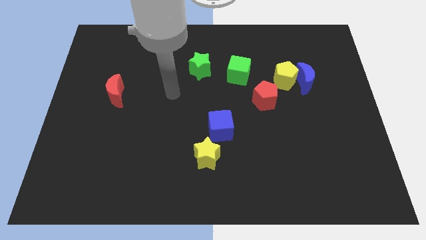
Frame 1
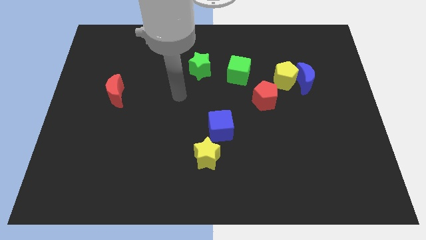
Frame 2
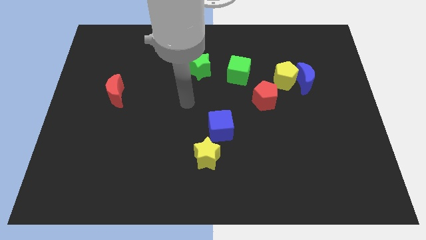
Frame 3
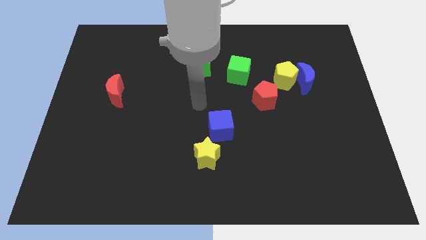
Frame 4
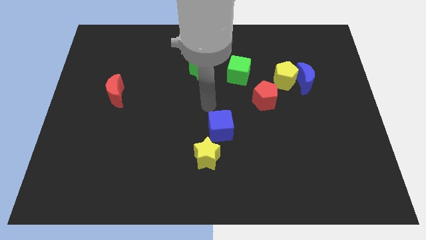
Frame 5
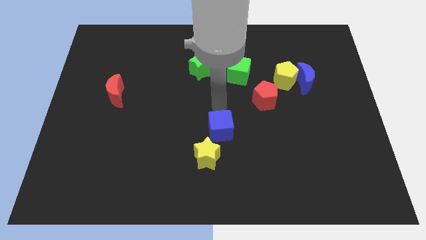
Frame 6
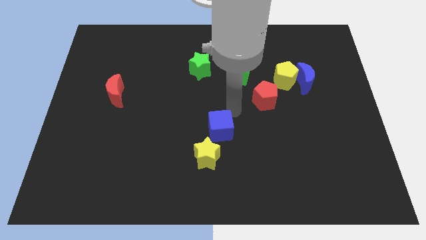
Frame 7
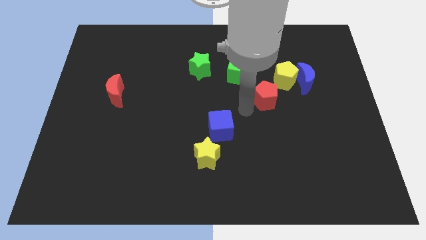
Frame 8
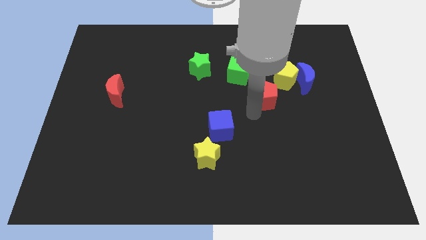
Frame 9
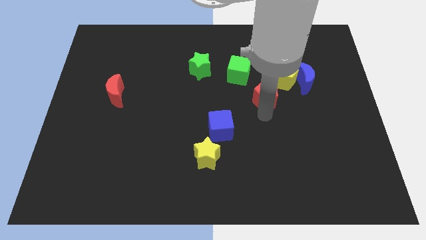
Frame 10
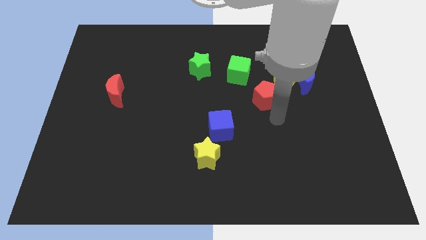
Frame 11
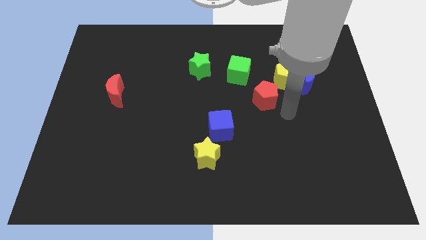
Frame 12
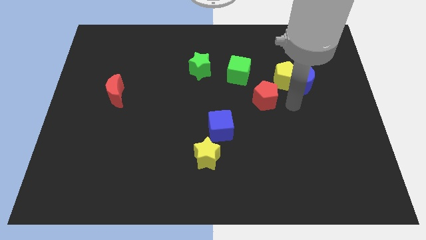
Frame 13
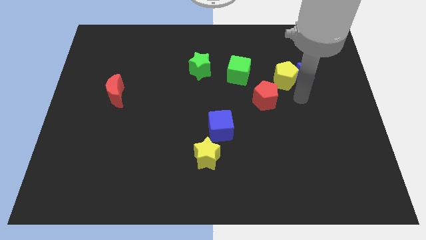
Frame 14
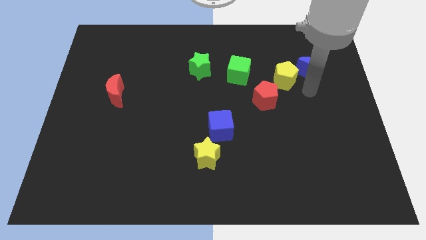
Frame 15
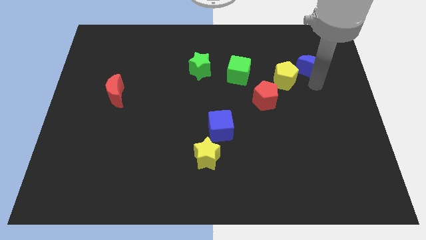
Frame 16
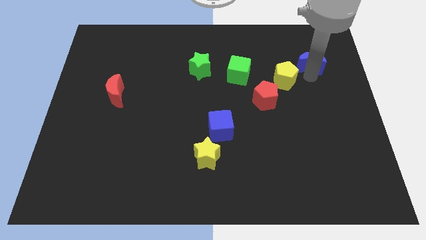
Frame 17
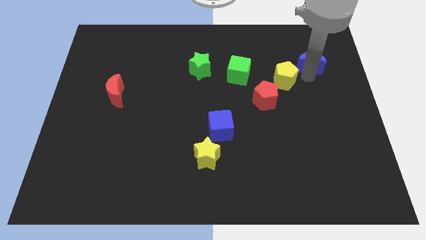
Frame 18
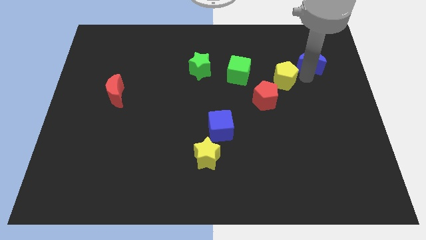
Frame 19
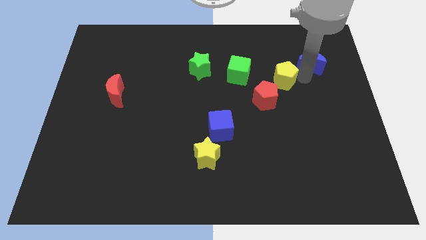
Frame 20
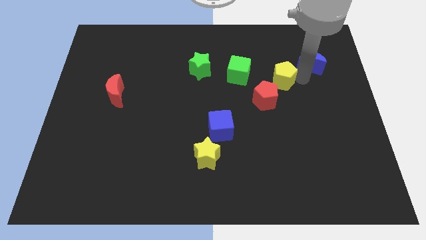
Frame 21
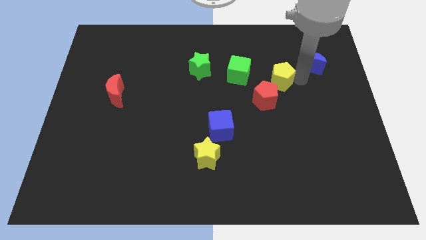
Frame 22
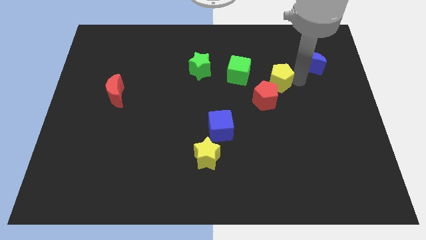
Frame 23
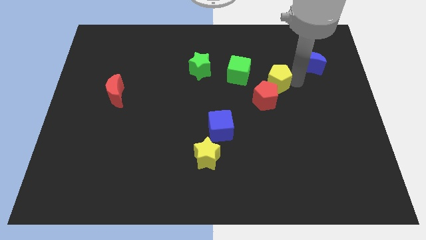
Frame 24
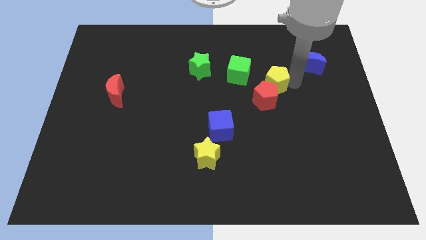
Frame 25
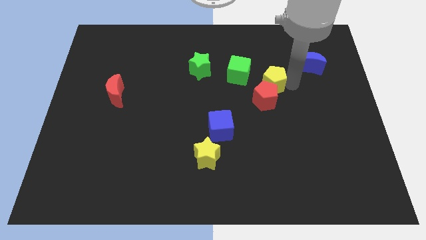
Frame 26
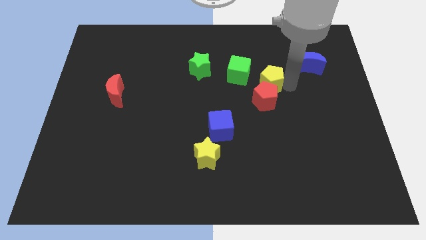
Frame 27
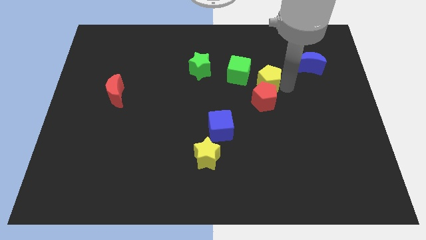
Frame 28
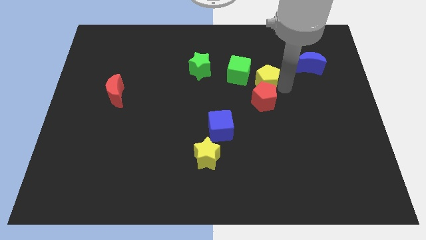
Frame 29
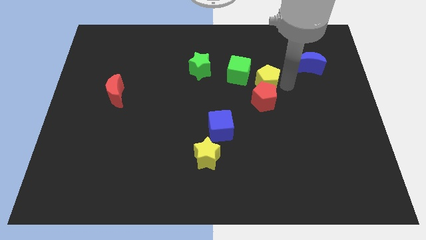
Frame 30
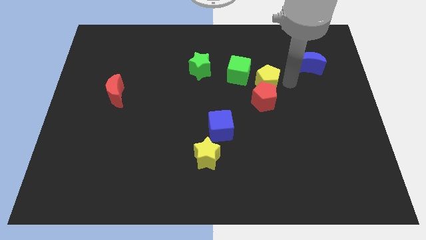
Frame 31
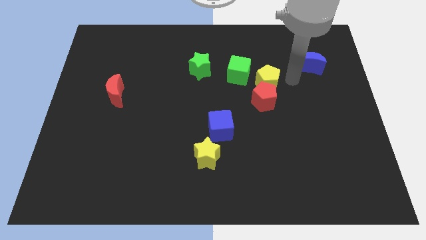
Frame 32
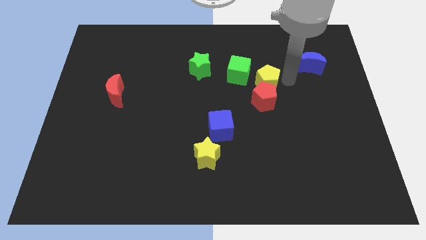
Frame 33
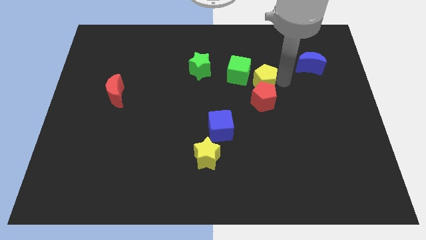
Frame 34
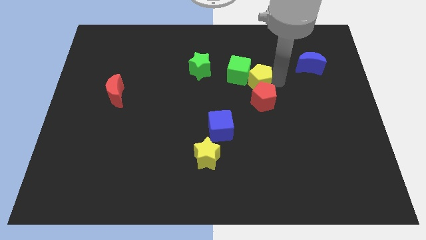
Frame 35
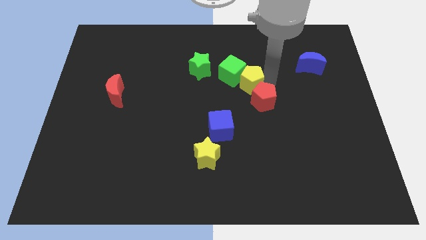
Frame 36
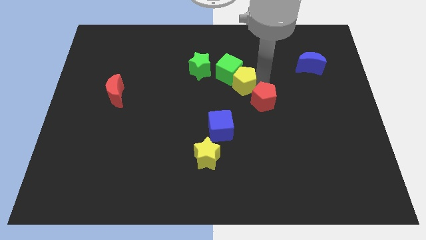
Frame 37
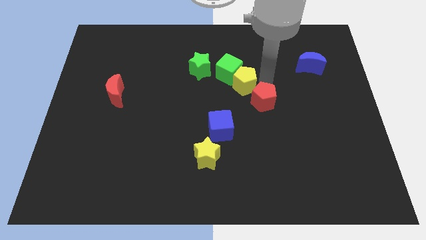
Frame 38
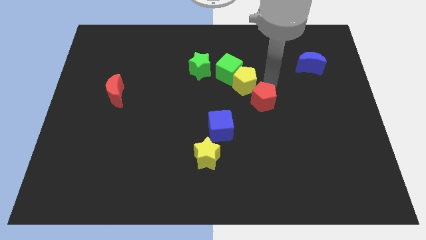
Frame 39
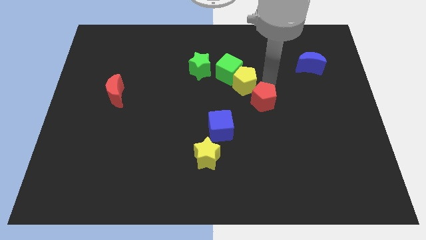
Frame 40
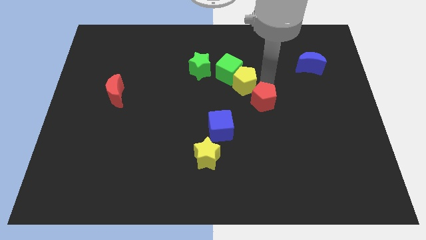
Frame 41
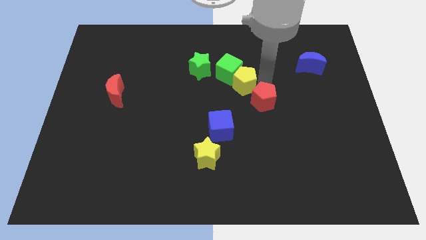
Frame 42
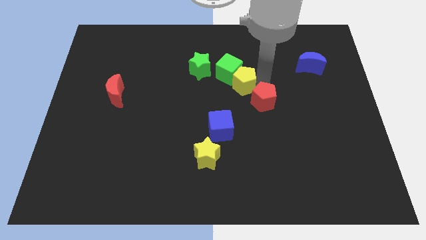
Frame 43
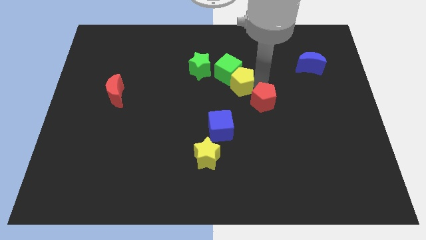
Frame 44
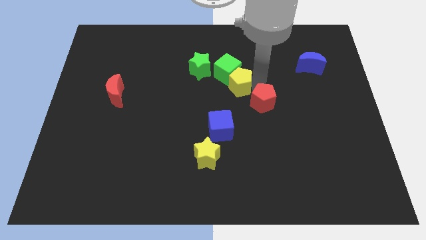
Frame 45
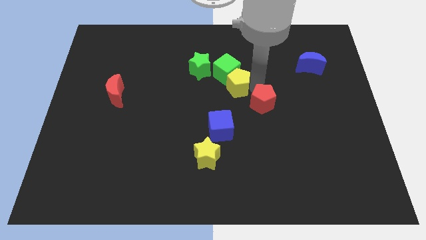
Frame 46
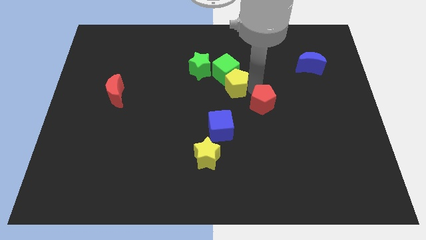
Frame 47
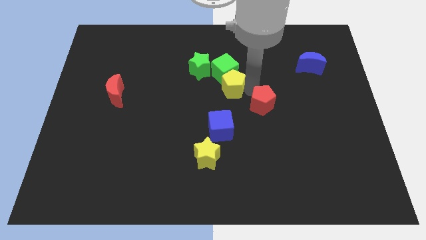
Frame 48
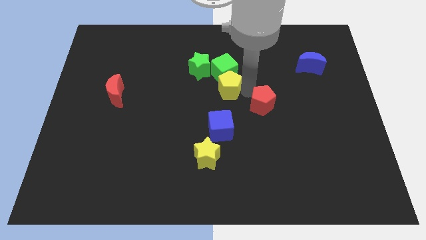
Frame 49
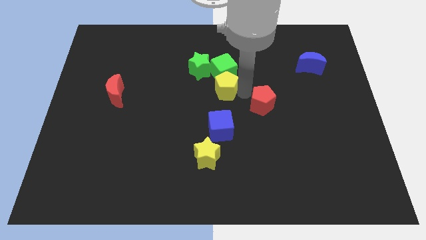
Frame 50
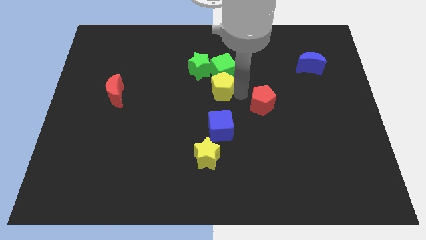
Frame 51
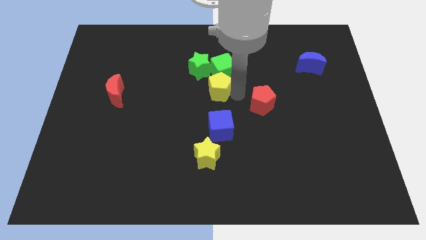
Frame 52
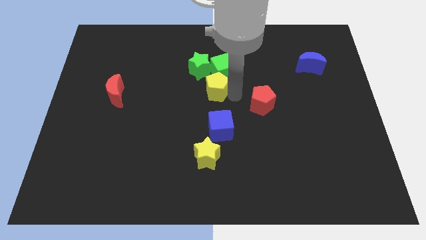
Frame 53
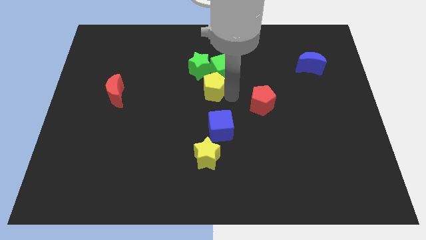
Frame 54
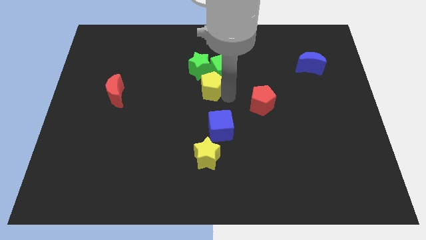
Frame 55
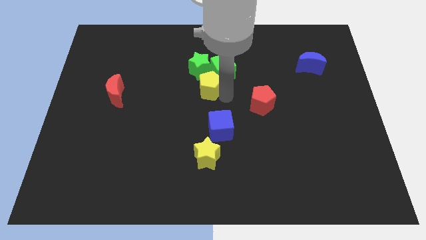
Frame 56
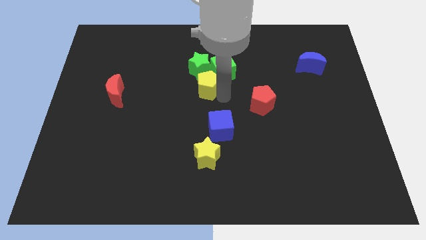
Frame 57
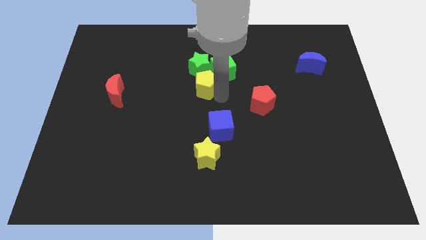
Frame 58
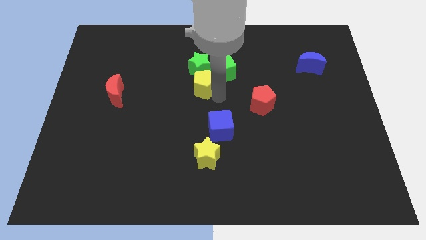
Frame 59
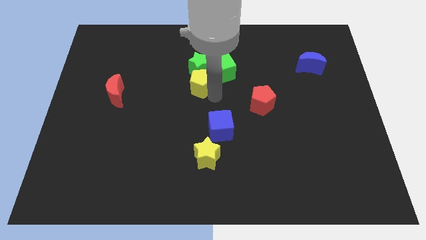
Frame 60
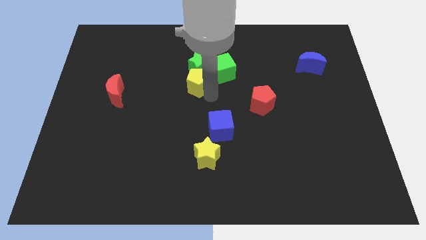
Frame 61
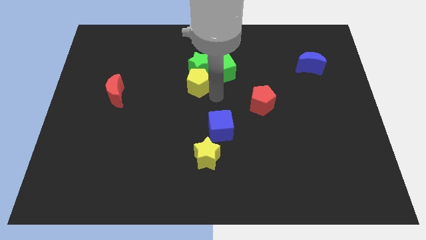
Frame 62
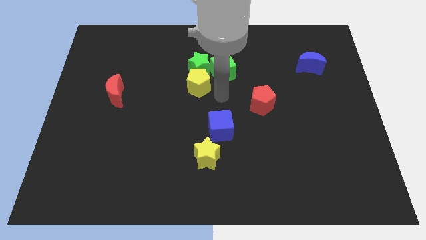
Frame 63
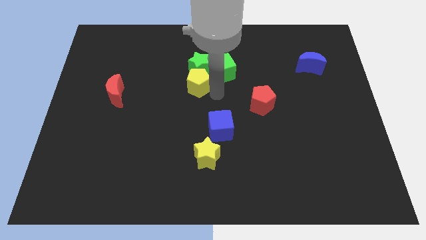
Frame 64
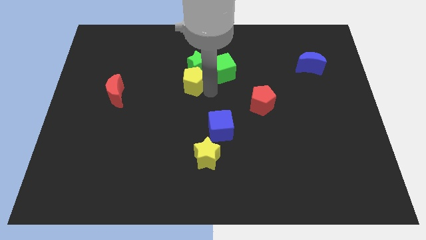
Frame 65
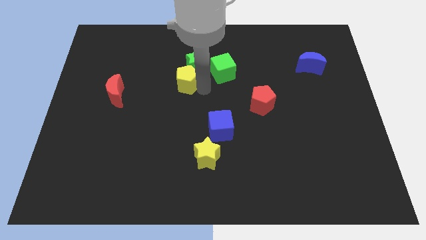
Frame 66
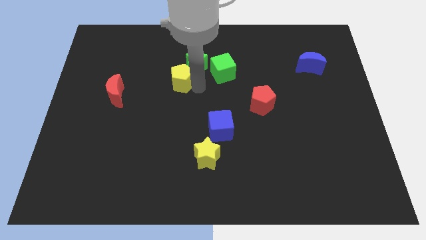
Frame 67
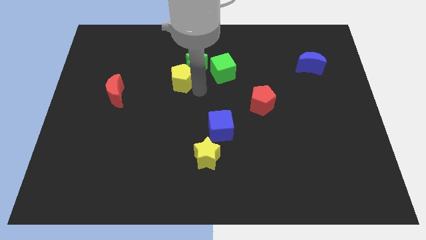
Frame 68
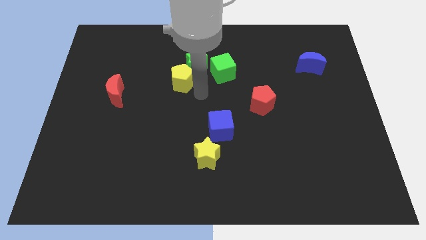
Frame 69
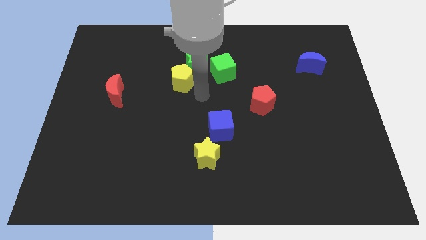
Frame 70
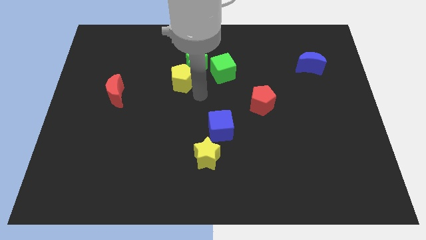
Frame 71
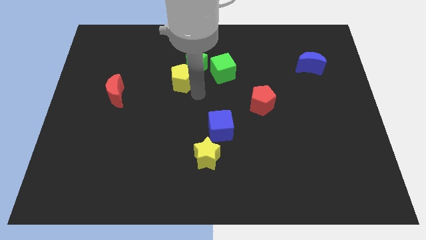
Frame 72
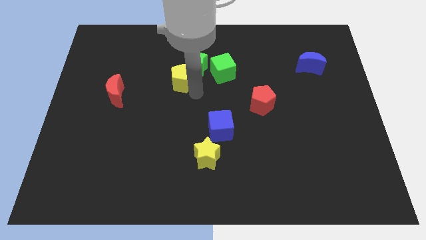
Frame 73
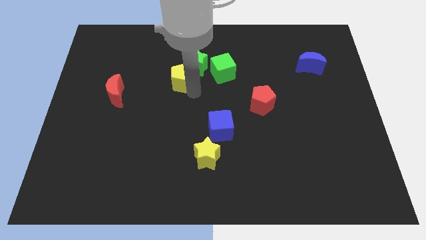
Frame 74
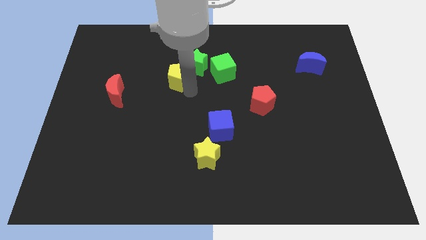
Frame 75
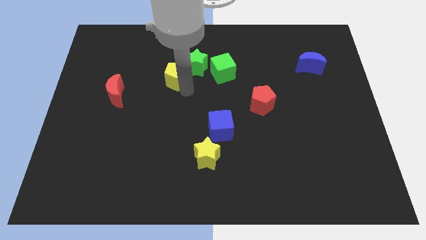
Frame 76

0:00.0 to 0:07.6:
put the yellow pentagon to the left side of the green star
